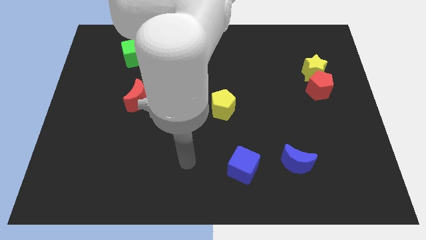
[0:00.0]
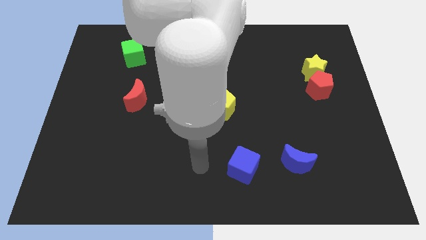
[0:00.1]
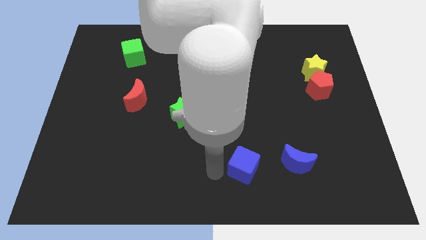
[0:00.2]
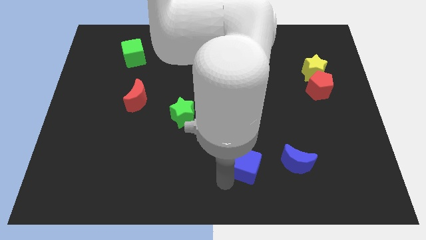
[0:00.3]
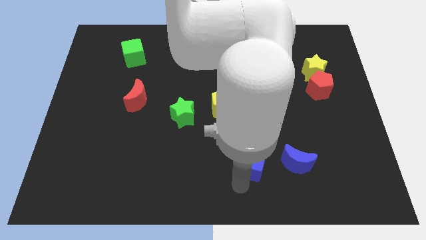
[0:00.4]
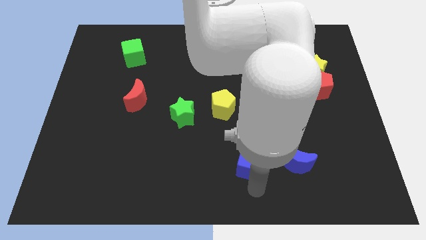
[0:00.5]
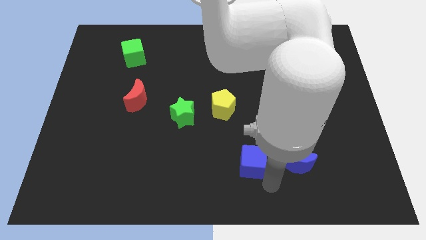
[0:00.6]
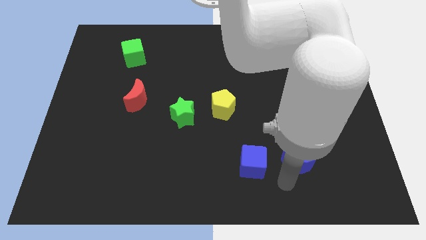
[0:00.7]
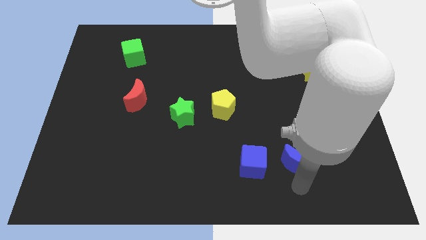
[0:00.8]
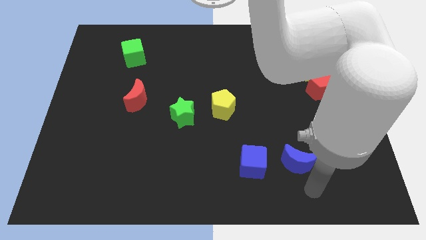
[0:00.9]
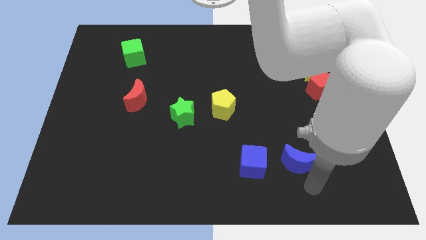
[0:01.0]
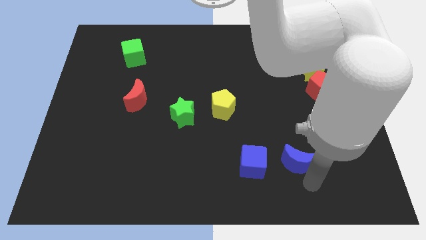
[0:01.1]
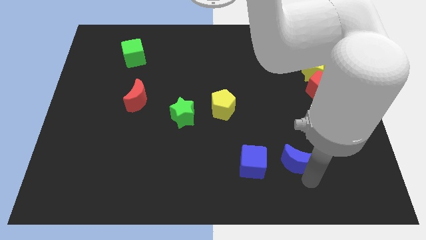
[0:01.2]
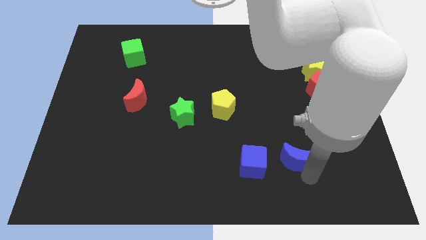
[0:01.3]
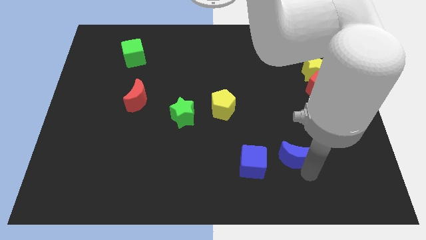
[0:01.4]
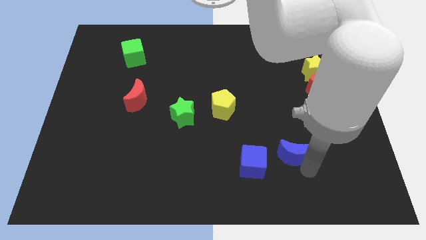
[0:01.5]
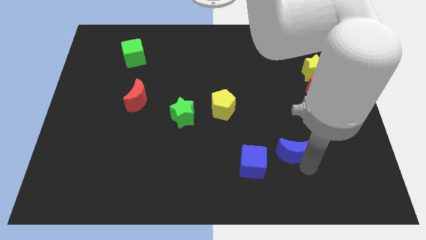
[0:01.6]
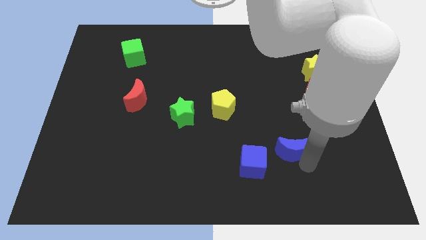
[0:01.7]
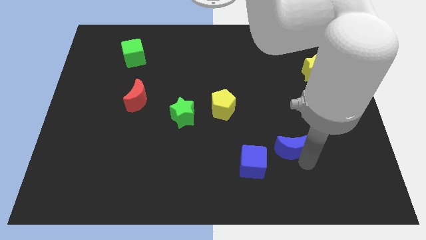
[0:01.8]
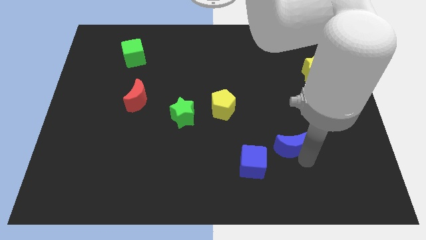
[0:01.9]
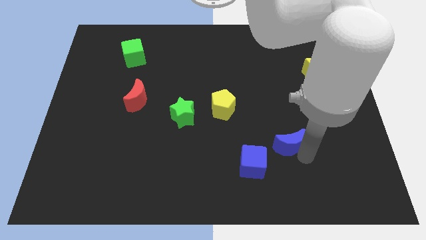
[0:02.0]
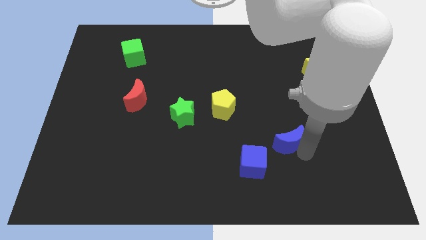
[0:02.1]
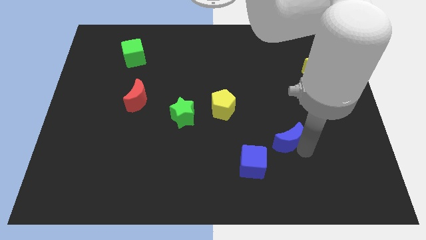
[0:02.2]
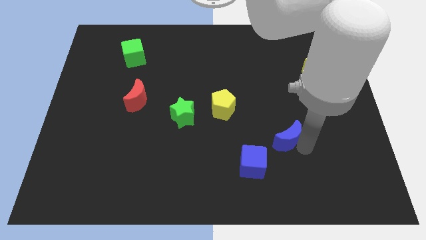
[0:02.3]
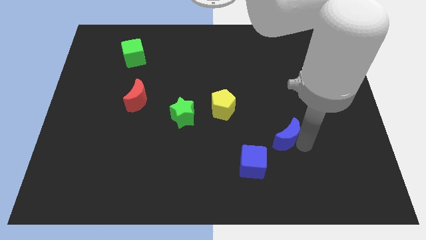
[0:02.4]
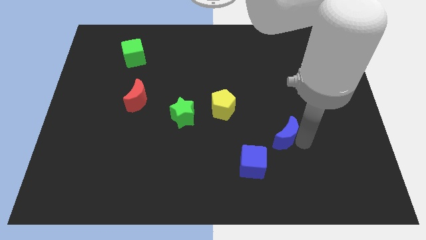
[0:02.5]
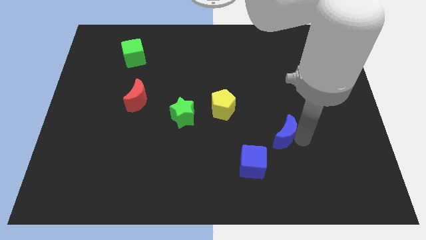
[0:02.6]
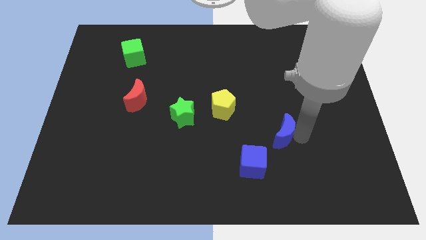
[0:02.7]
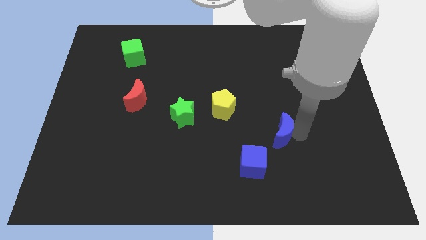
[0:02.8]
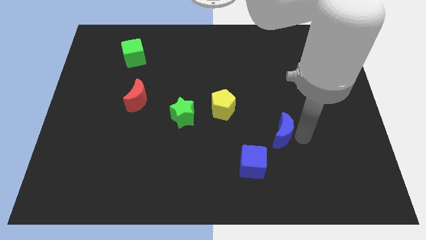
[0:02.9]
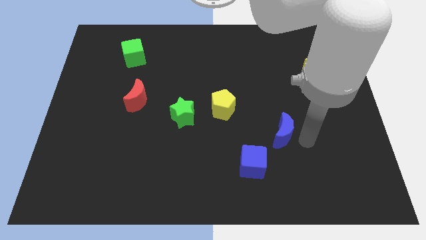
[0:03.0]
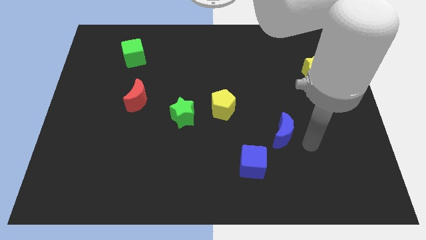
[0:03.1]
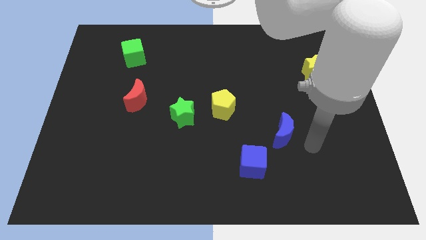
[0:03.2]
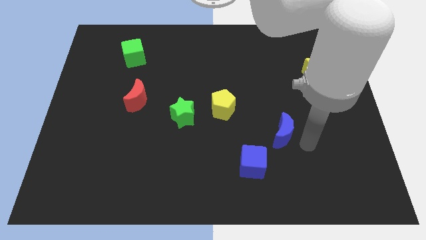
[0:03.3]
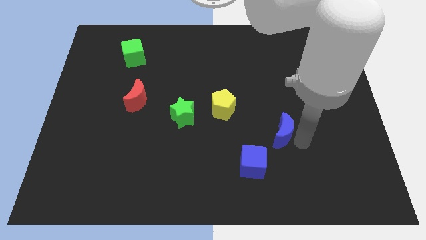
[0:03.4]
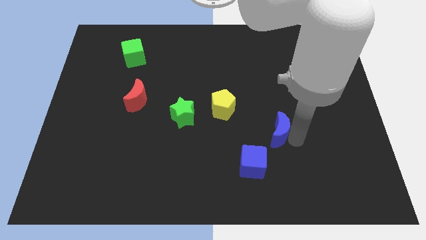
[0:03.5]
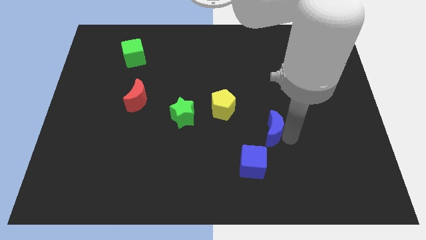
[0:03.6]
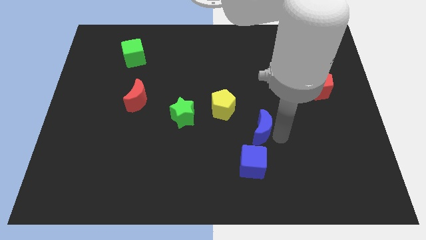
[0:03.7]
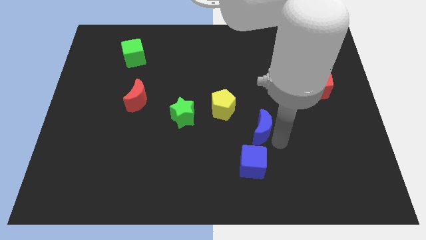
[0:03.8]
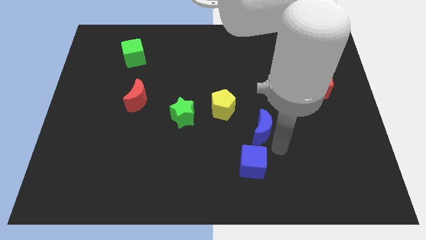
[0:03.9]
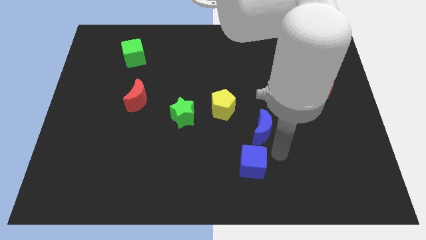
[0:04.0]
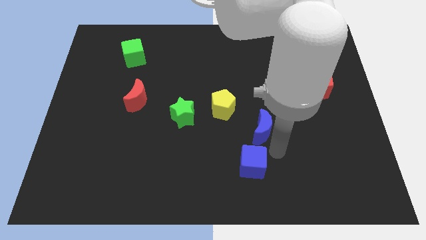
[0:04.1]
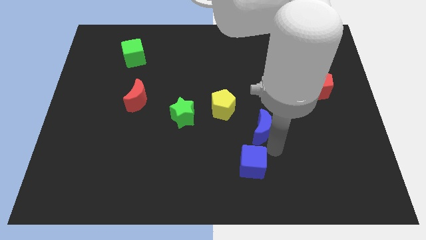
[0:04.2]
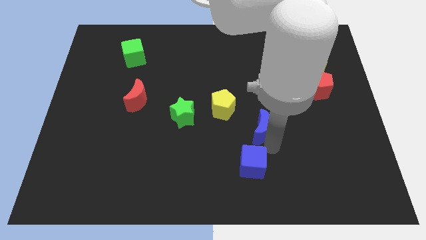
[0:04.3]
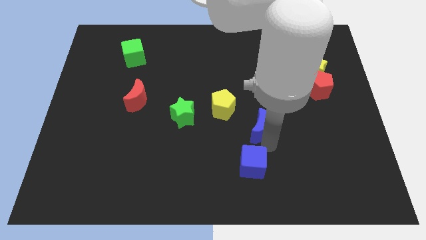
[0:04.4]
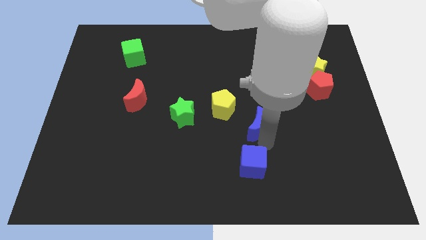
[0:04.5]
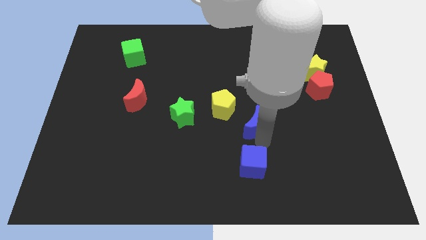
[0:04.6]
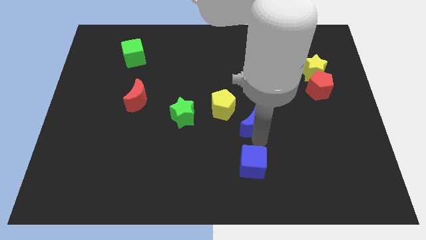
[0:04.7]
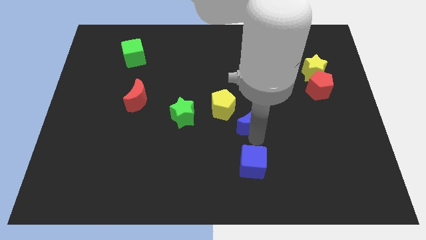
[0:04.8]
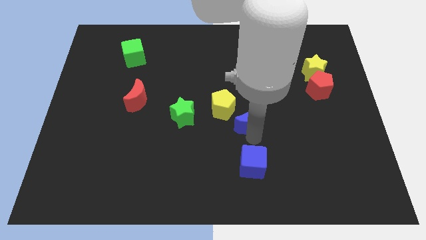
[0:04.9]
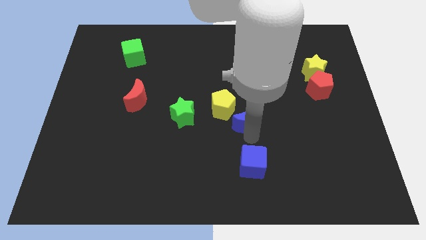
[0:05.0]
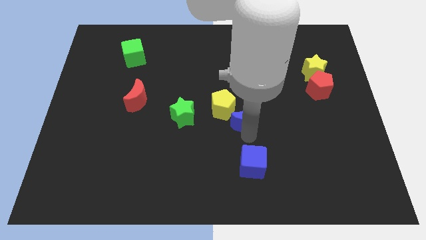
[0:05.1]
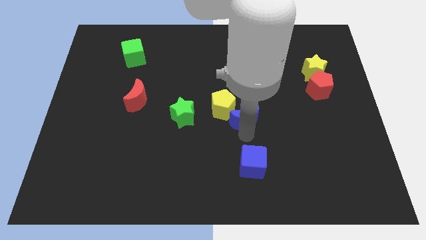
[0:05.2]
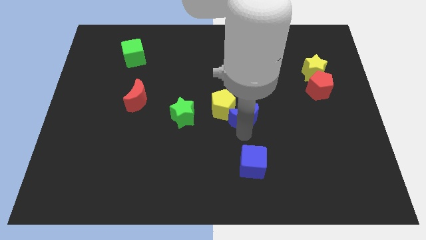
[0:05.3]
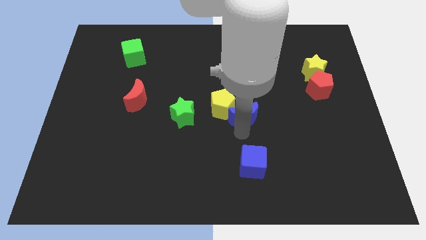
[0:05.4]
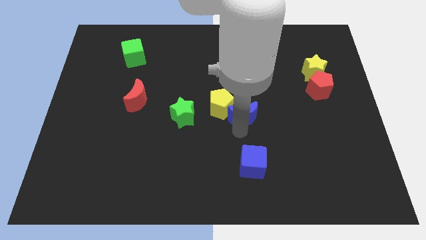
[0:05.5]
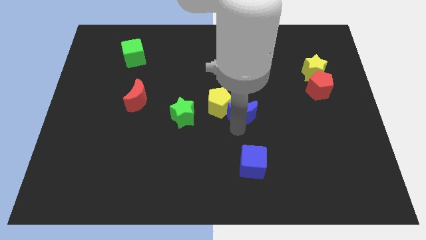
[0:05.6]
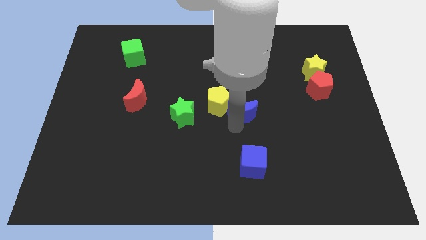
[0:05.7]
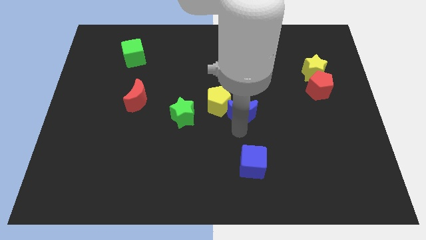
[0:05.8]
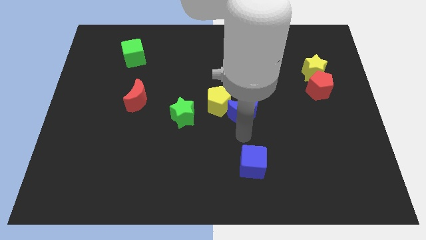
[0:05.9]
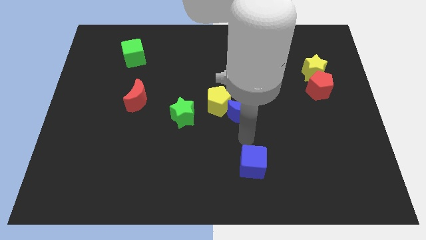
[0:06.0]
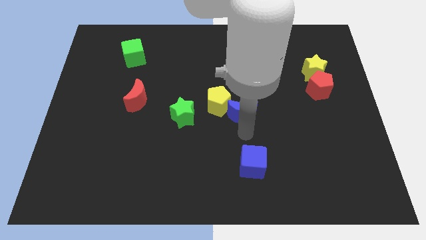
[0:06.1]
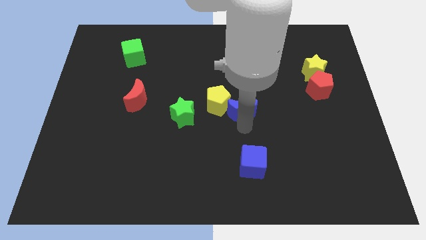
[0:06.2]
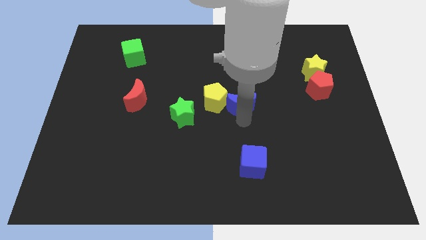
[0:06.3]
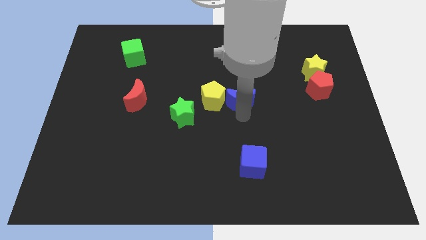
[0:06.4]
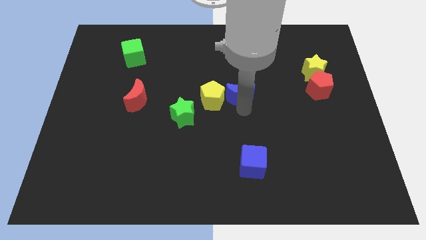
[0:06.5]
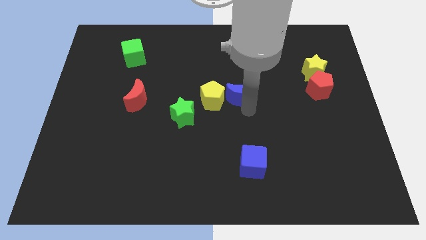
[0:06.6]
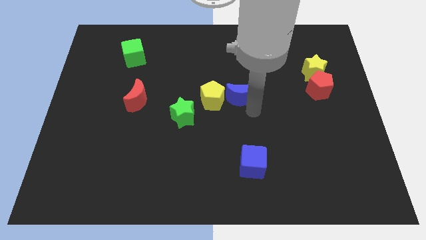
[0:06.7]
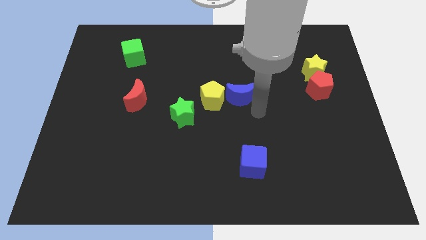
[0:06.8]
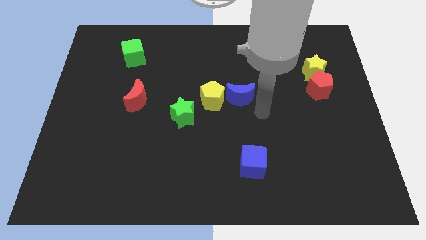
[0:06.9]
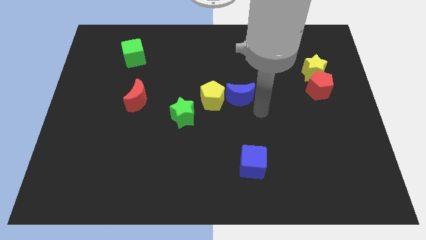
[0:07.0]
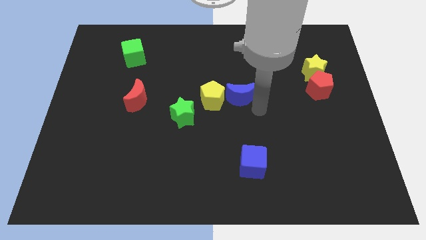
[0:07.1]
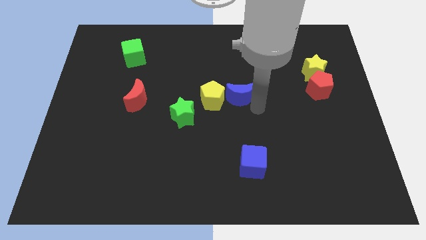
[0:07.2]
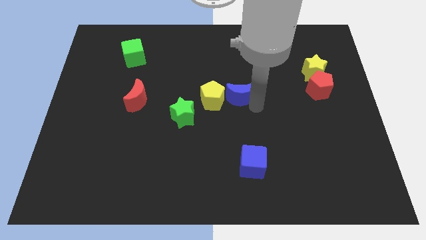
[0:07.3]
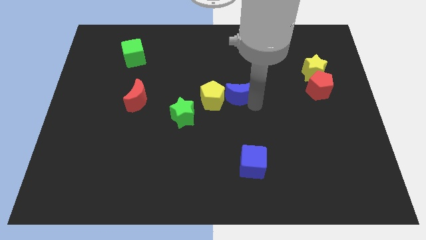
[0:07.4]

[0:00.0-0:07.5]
slide the blue moon diagonally upwards and left

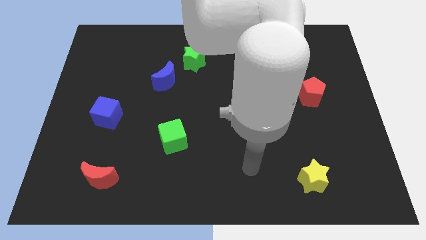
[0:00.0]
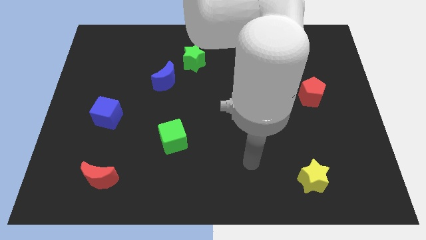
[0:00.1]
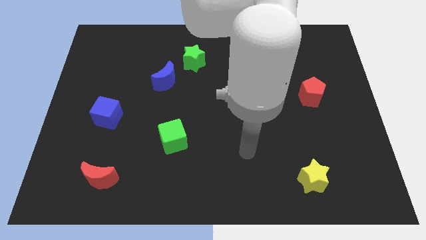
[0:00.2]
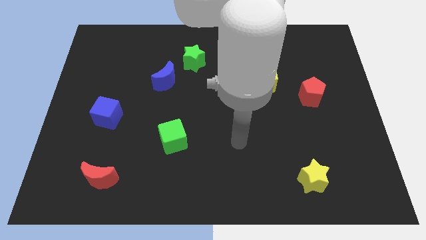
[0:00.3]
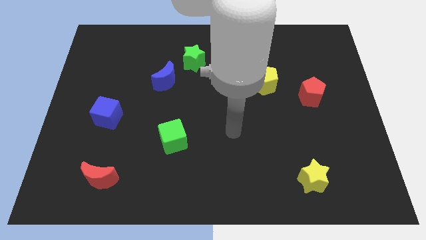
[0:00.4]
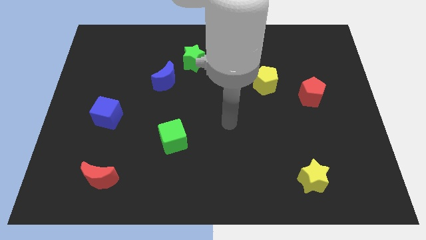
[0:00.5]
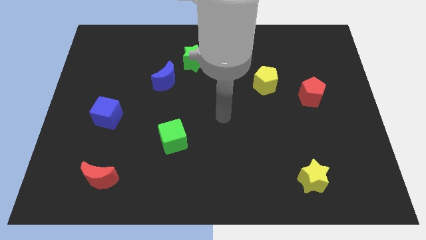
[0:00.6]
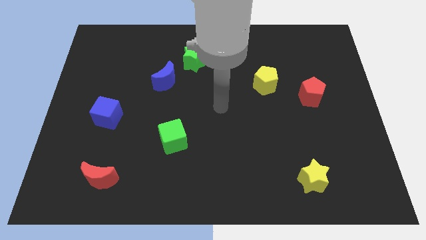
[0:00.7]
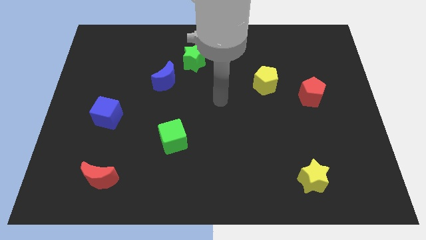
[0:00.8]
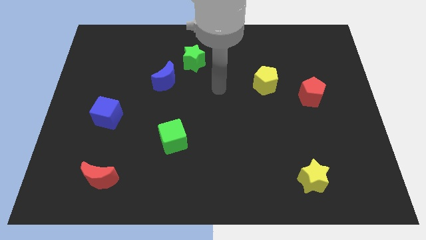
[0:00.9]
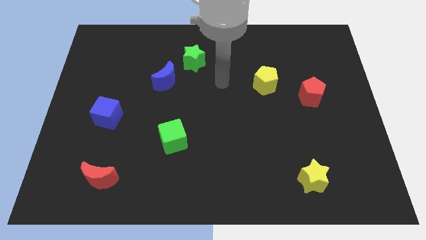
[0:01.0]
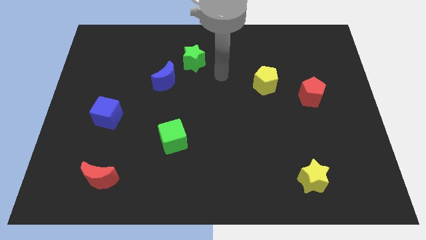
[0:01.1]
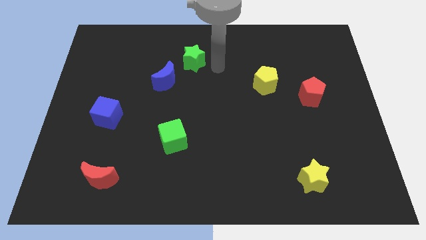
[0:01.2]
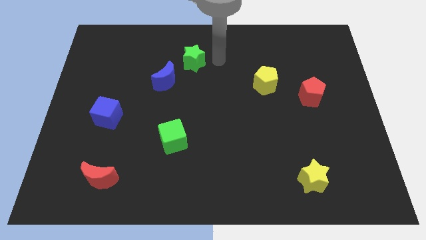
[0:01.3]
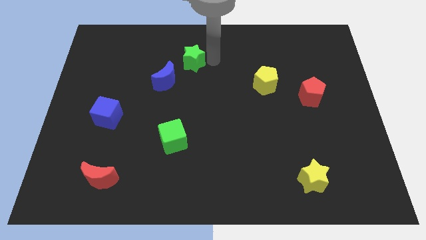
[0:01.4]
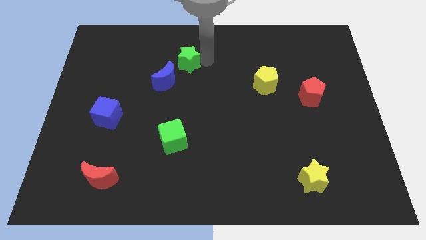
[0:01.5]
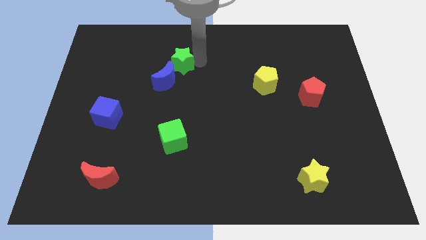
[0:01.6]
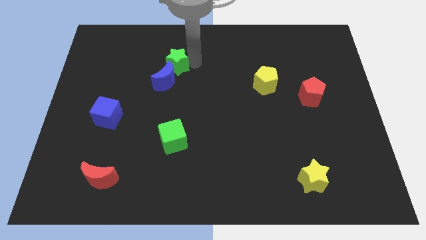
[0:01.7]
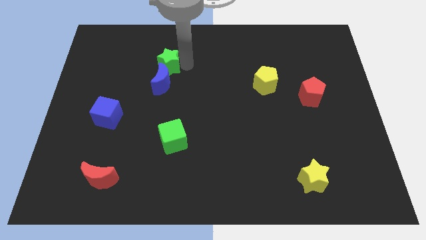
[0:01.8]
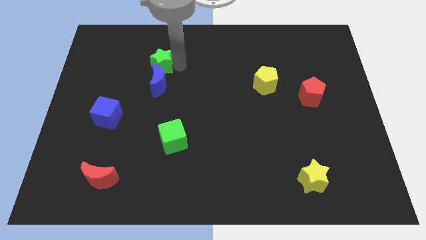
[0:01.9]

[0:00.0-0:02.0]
push the green star a little to the left
